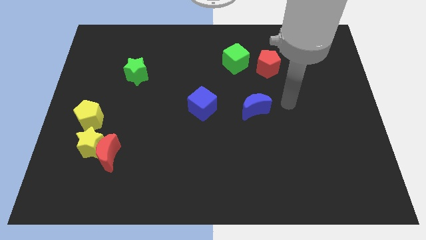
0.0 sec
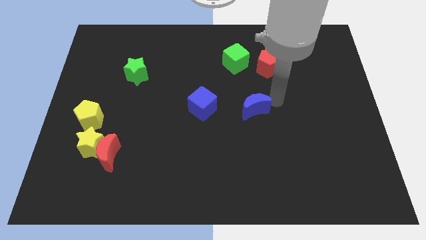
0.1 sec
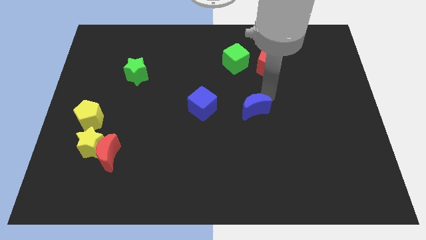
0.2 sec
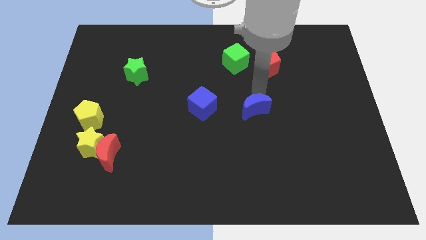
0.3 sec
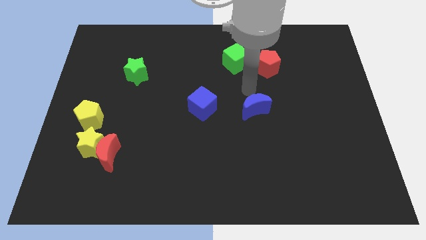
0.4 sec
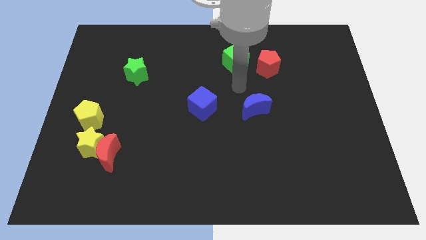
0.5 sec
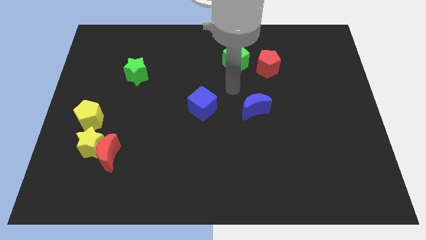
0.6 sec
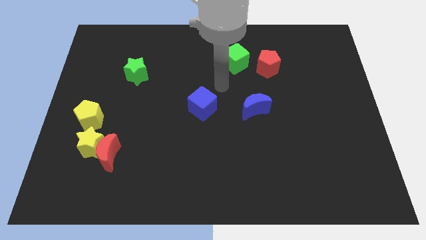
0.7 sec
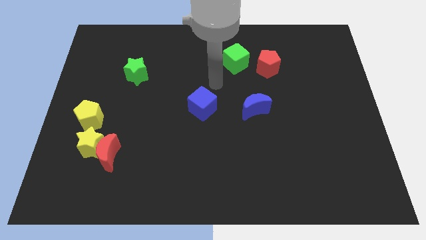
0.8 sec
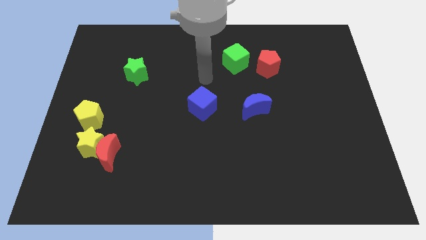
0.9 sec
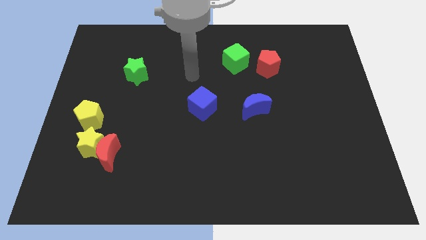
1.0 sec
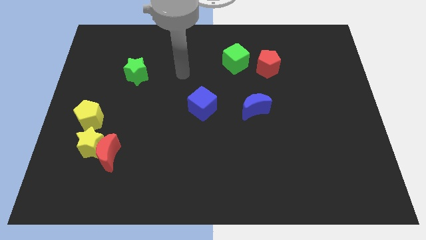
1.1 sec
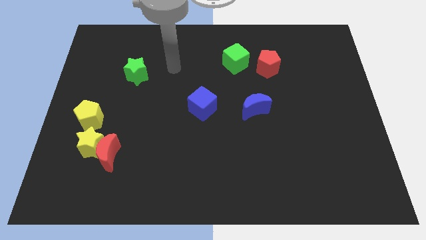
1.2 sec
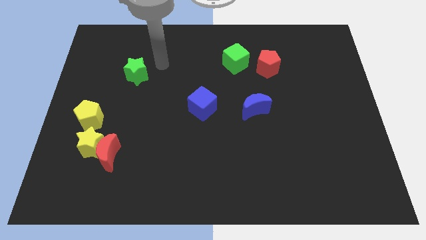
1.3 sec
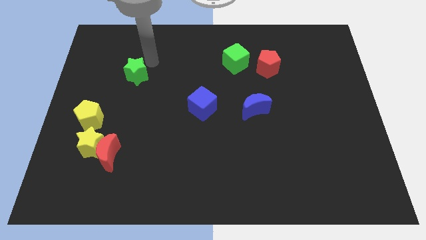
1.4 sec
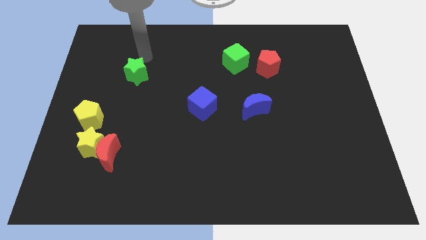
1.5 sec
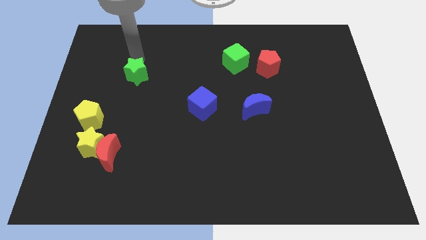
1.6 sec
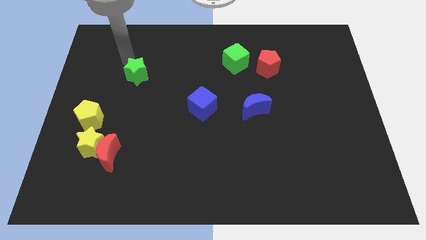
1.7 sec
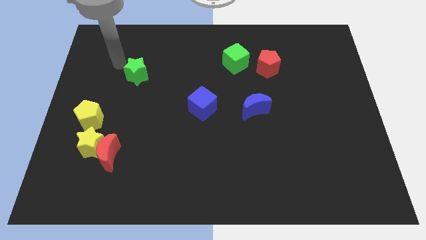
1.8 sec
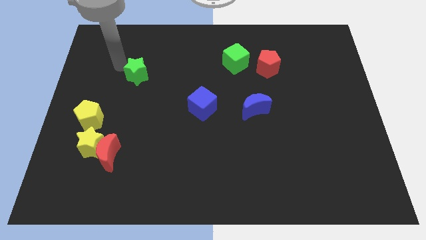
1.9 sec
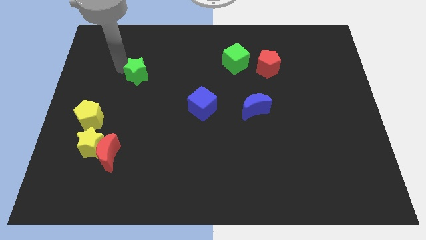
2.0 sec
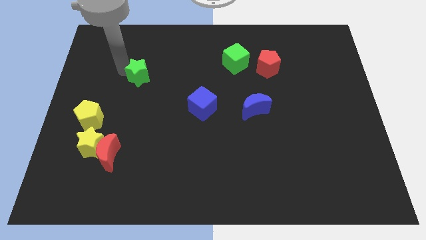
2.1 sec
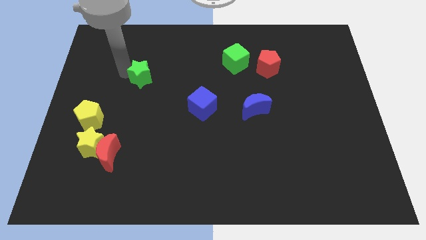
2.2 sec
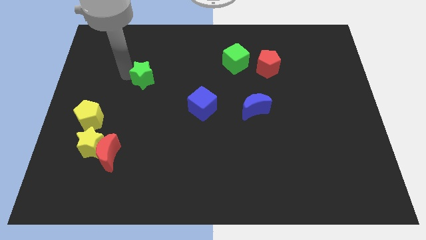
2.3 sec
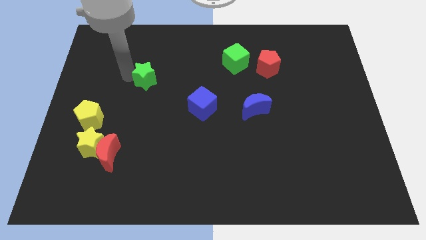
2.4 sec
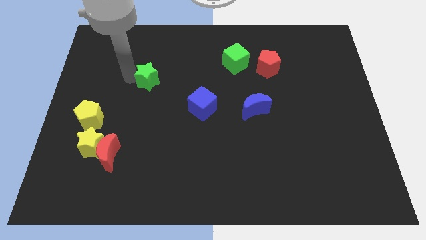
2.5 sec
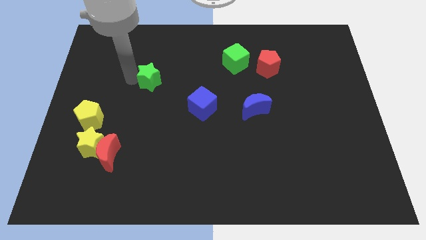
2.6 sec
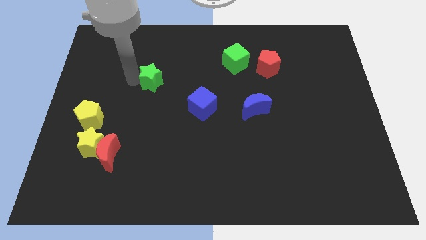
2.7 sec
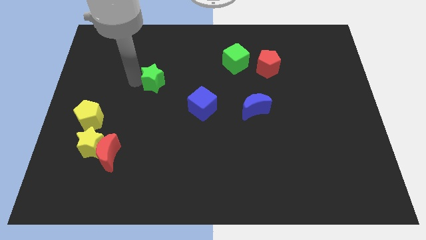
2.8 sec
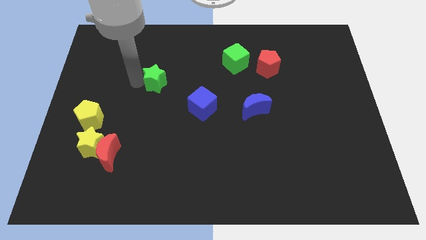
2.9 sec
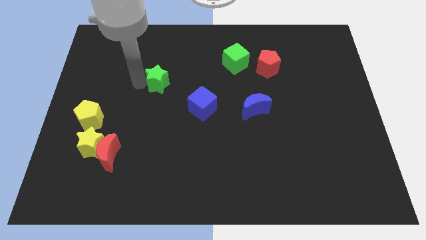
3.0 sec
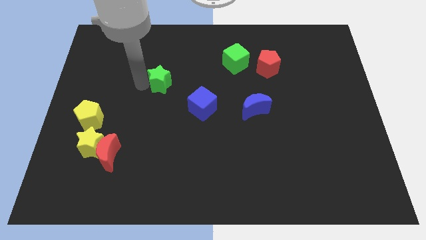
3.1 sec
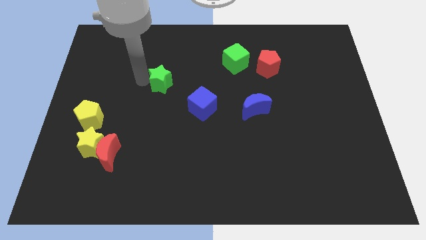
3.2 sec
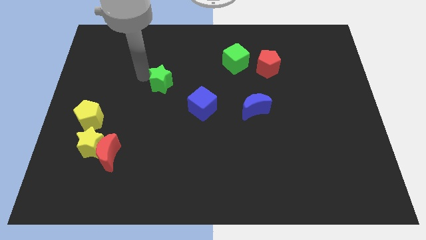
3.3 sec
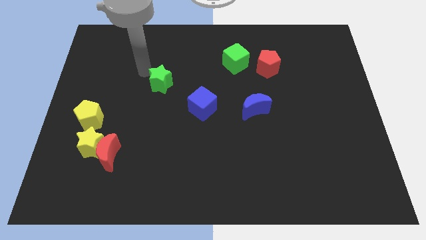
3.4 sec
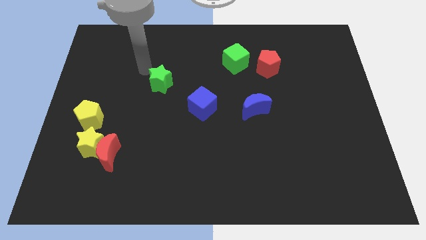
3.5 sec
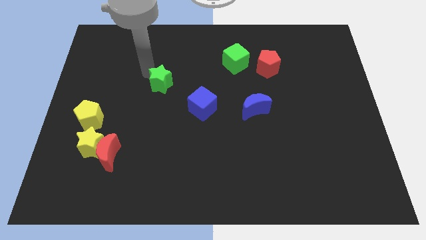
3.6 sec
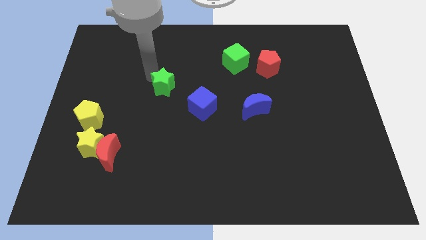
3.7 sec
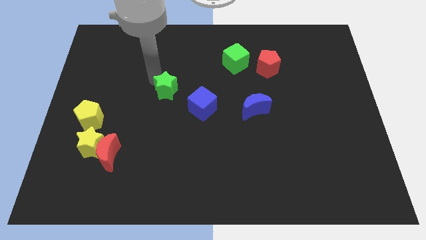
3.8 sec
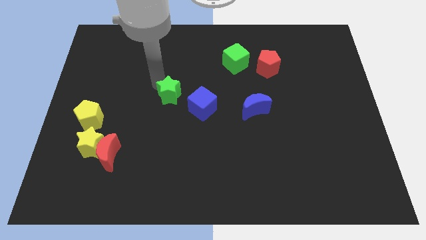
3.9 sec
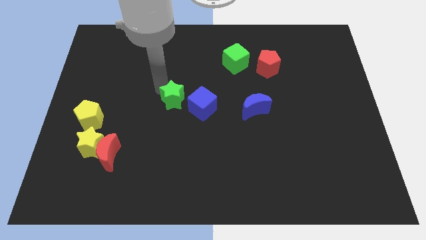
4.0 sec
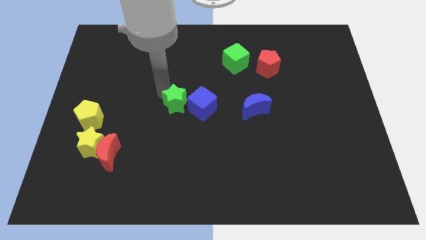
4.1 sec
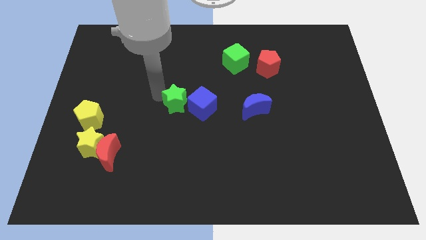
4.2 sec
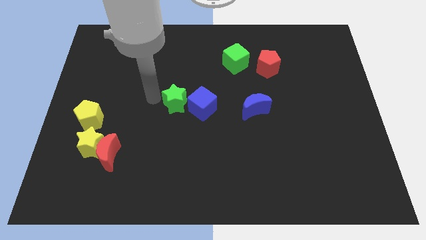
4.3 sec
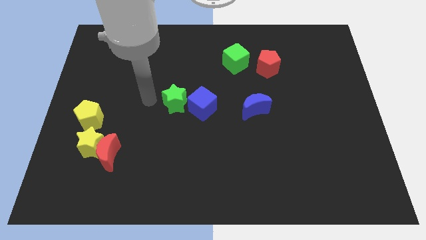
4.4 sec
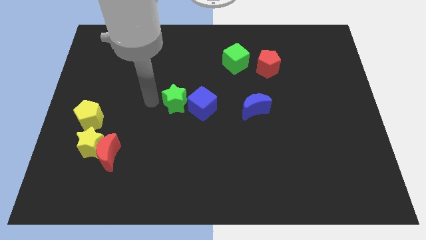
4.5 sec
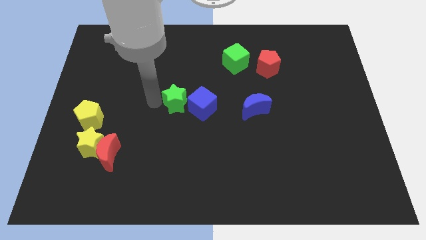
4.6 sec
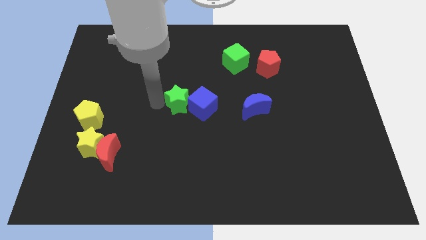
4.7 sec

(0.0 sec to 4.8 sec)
put the green star to the blue cube

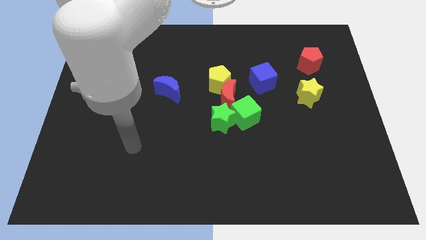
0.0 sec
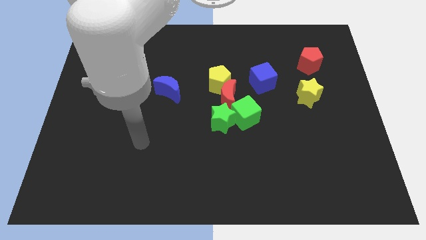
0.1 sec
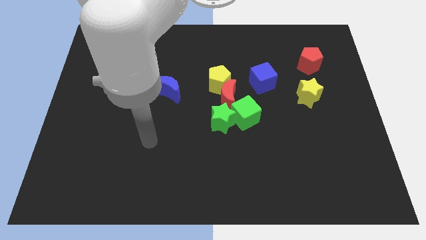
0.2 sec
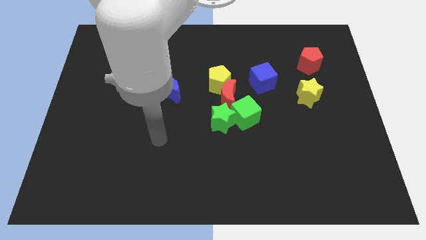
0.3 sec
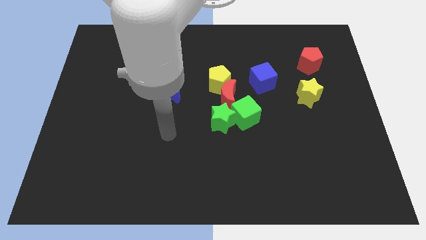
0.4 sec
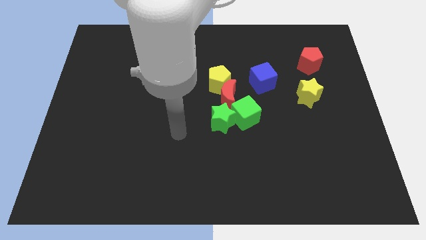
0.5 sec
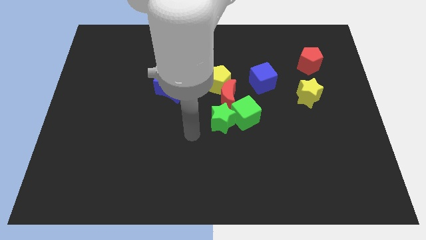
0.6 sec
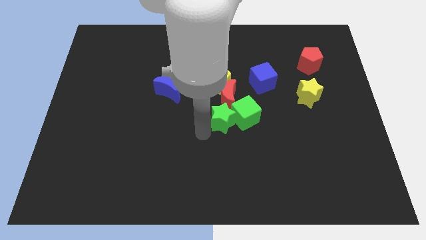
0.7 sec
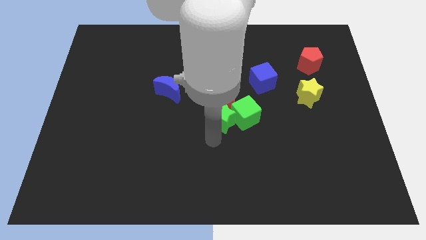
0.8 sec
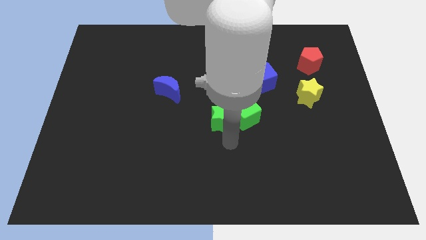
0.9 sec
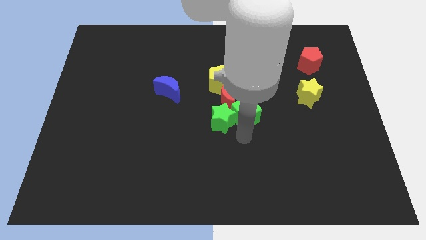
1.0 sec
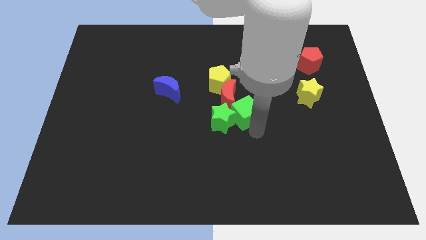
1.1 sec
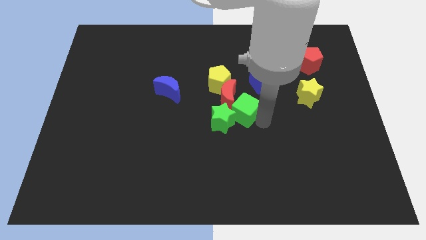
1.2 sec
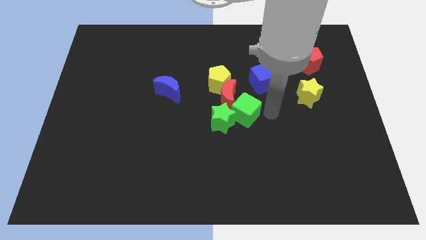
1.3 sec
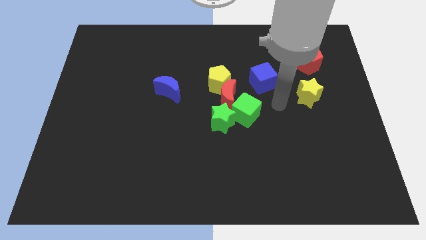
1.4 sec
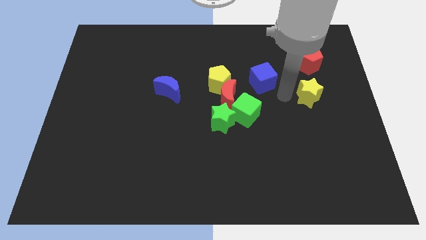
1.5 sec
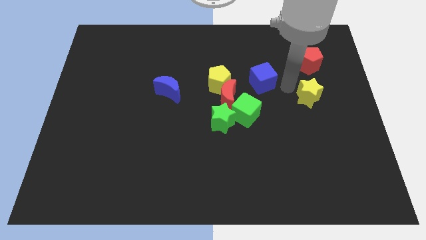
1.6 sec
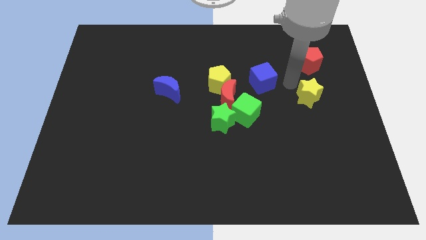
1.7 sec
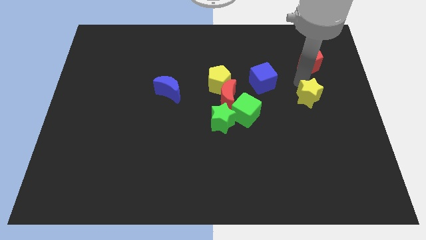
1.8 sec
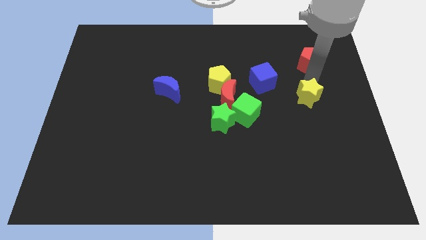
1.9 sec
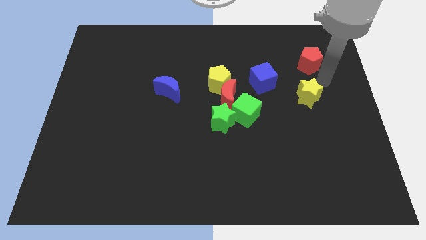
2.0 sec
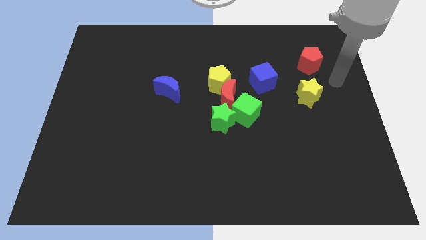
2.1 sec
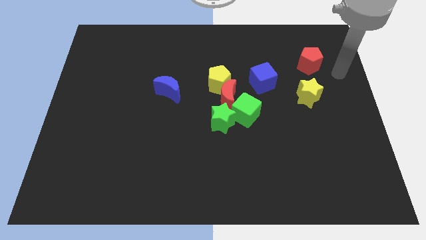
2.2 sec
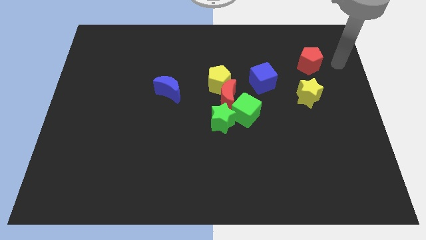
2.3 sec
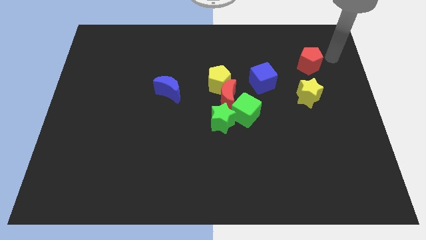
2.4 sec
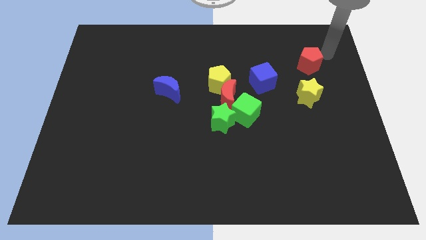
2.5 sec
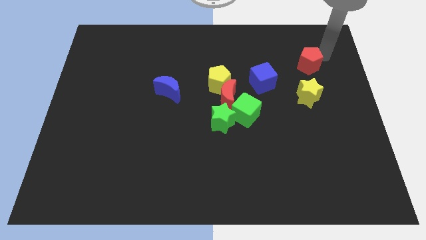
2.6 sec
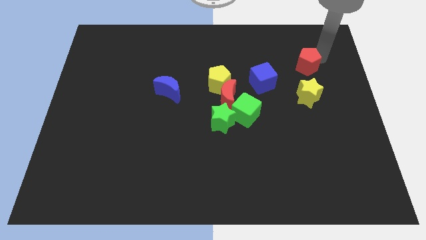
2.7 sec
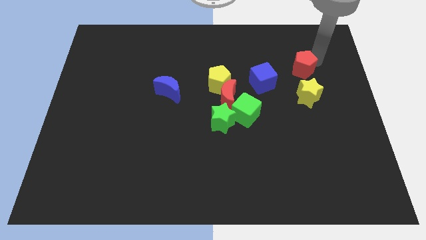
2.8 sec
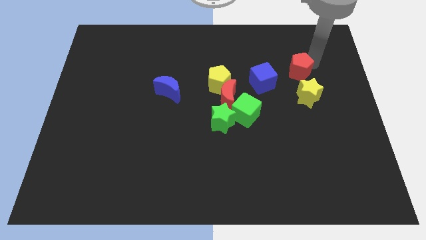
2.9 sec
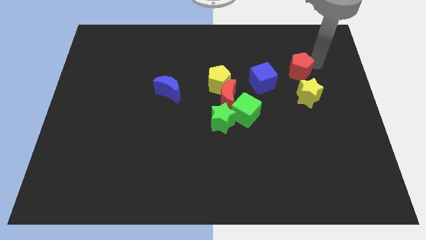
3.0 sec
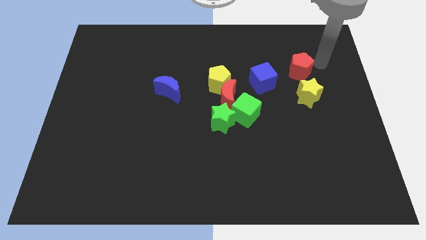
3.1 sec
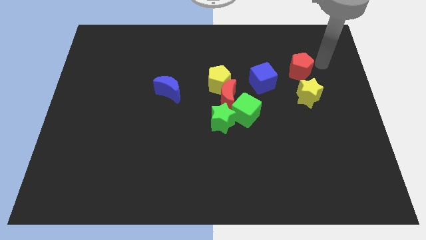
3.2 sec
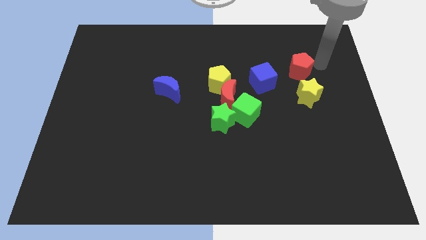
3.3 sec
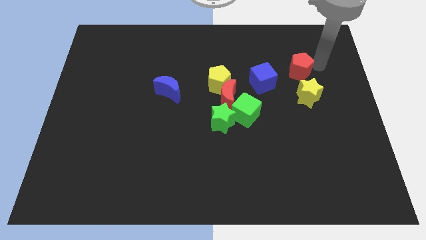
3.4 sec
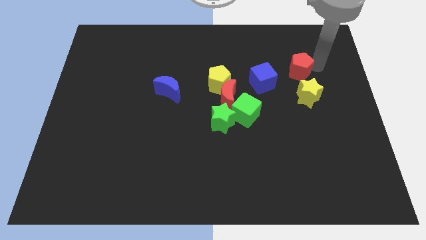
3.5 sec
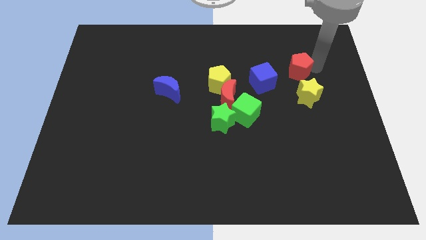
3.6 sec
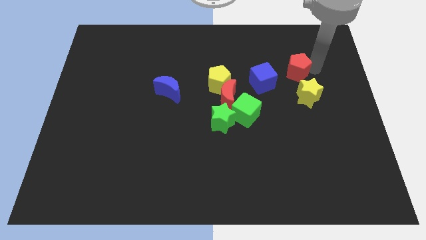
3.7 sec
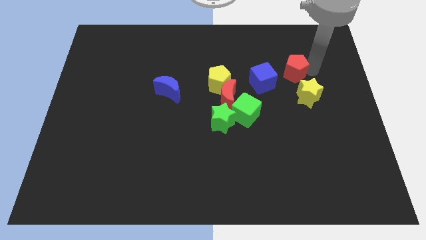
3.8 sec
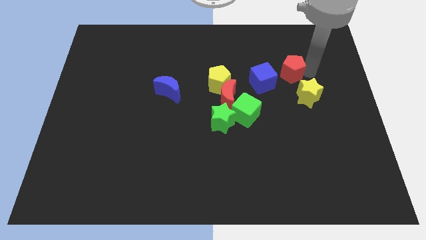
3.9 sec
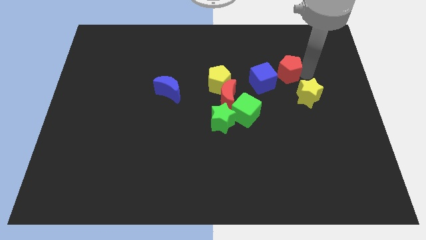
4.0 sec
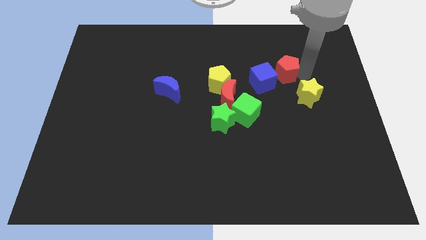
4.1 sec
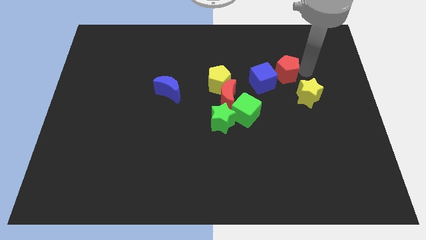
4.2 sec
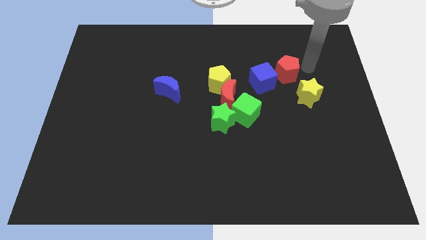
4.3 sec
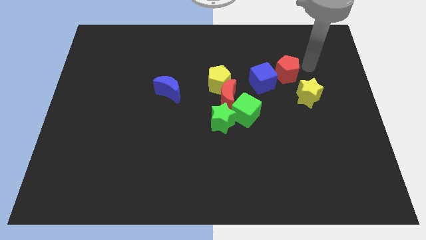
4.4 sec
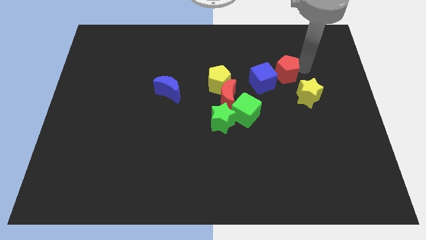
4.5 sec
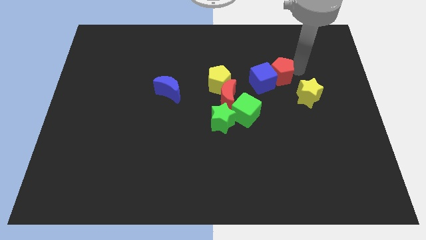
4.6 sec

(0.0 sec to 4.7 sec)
put the red pentagon to the blue cube
